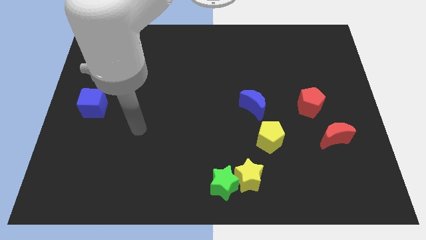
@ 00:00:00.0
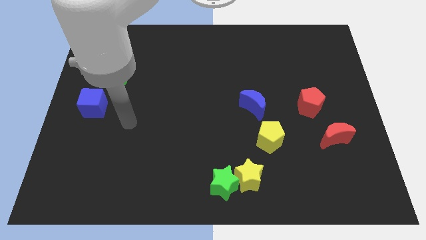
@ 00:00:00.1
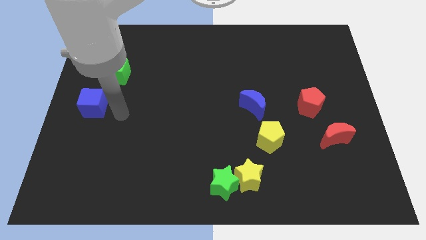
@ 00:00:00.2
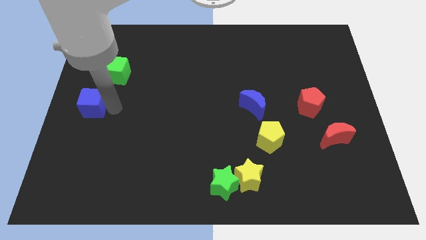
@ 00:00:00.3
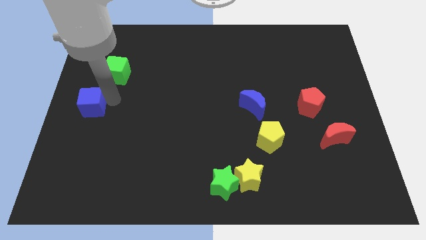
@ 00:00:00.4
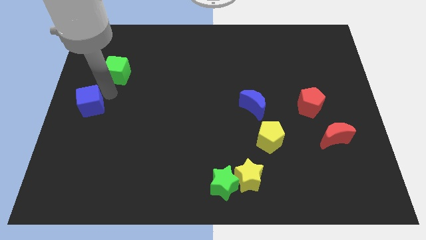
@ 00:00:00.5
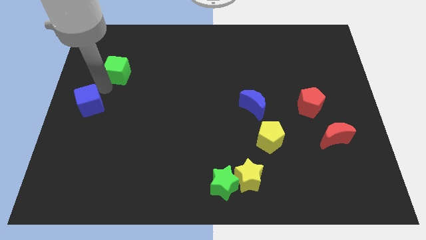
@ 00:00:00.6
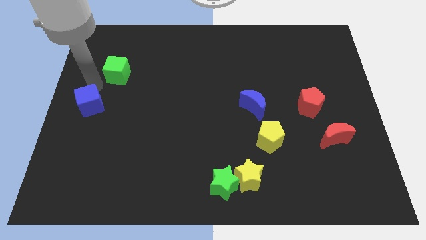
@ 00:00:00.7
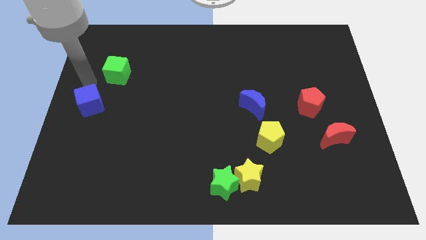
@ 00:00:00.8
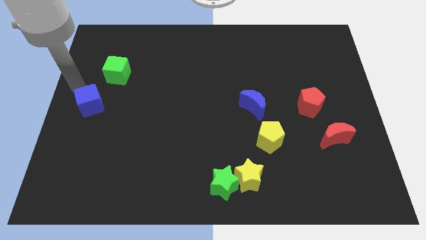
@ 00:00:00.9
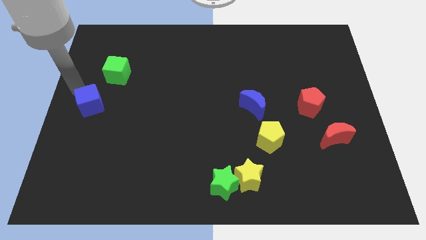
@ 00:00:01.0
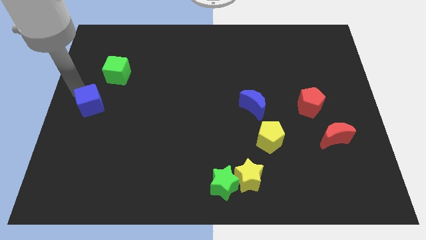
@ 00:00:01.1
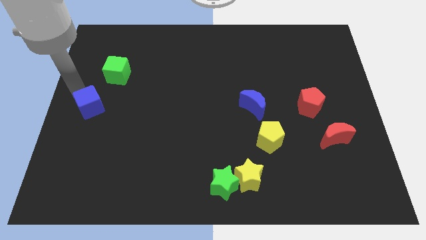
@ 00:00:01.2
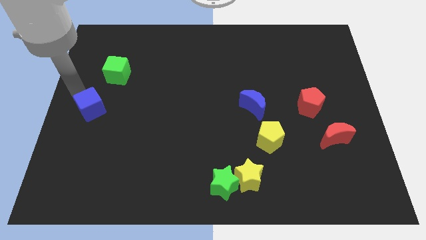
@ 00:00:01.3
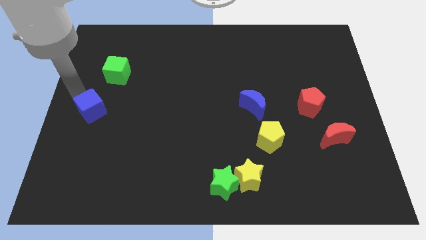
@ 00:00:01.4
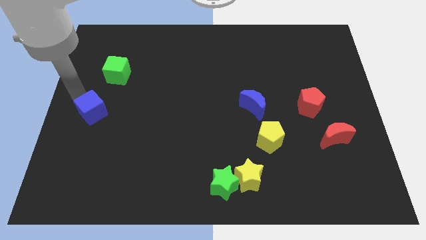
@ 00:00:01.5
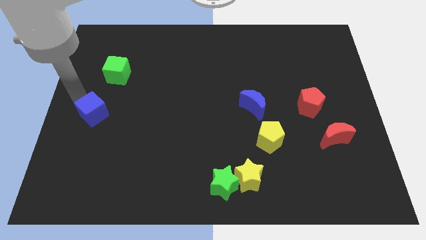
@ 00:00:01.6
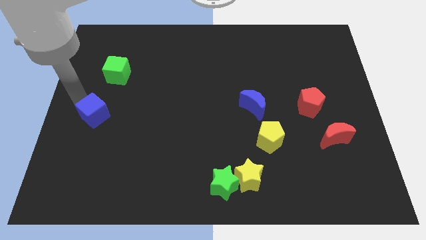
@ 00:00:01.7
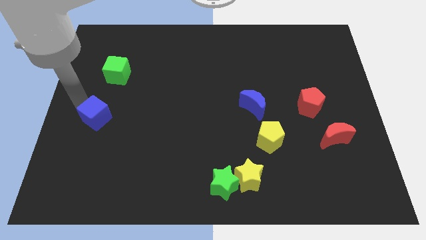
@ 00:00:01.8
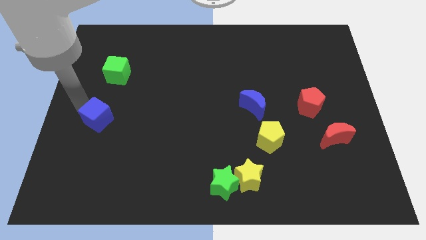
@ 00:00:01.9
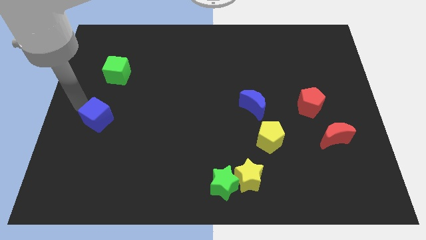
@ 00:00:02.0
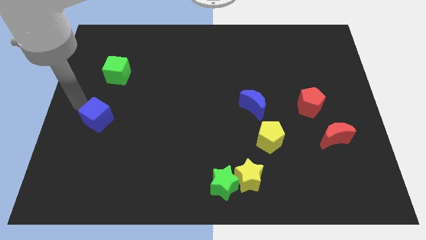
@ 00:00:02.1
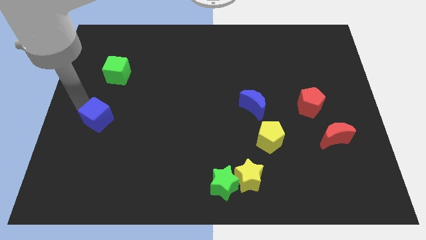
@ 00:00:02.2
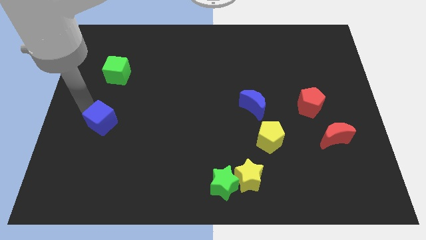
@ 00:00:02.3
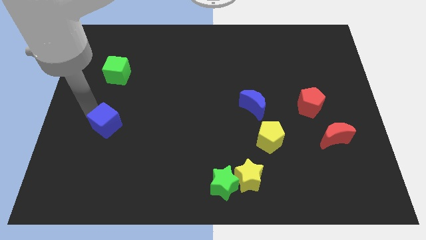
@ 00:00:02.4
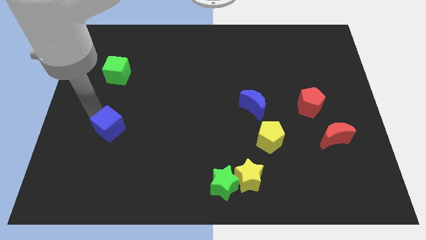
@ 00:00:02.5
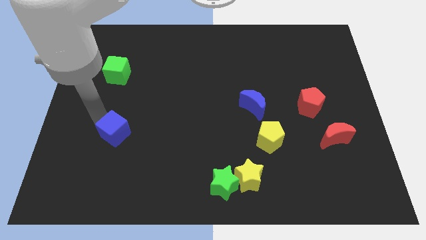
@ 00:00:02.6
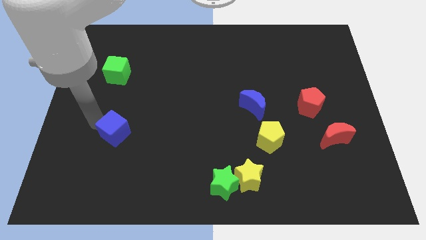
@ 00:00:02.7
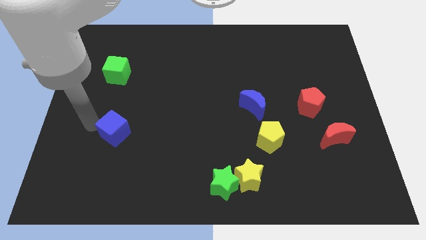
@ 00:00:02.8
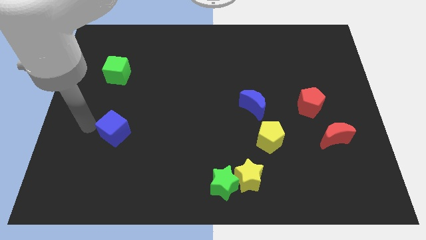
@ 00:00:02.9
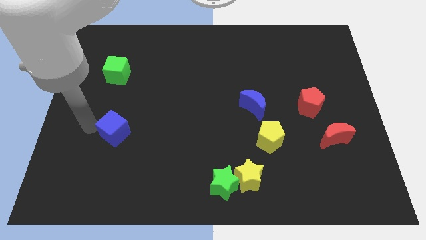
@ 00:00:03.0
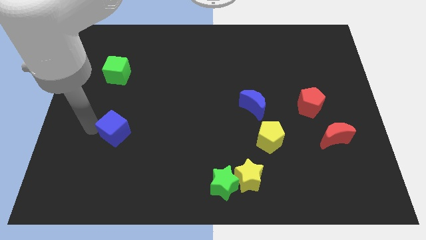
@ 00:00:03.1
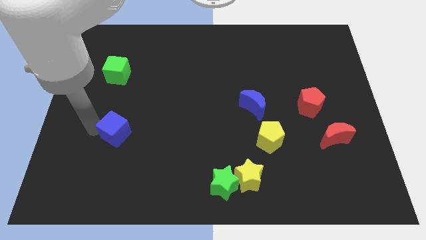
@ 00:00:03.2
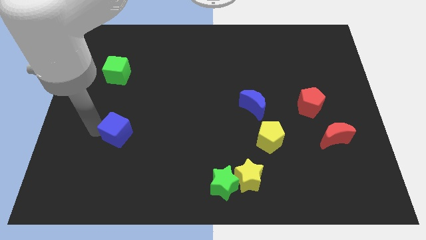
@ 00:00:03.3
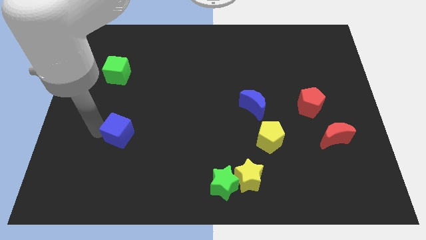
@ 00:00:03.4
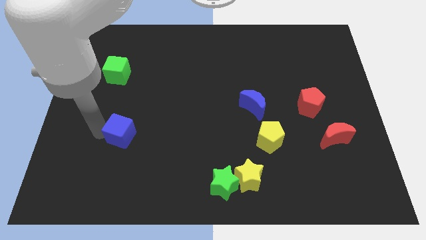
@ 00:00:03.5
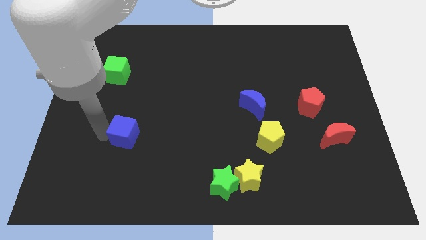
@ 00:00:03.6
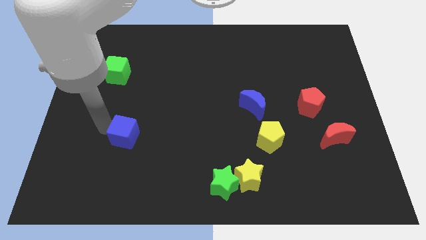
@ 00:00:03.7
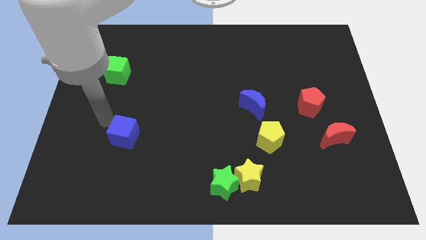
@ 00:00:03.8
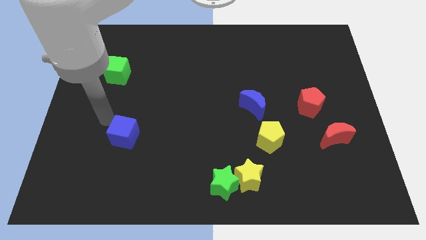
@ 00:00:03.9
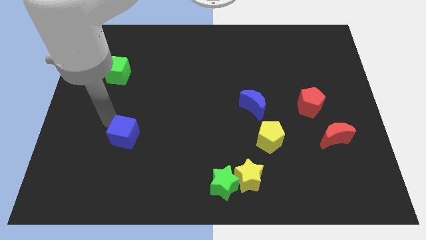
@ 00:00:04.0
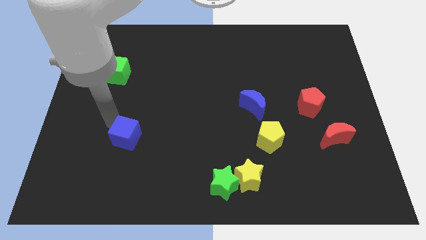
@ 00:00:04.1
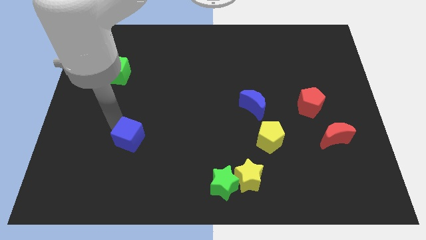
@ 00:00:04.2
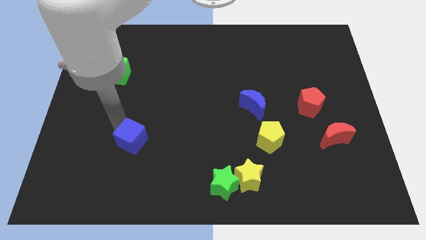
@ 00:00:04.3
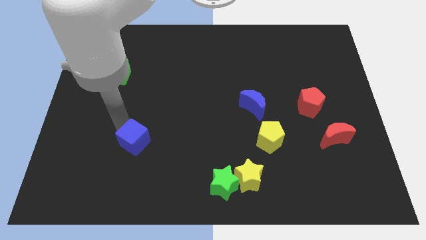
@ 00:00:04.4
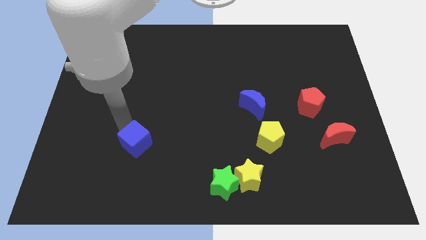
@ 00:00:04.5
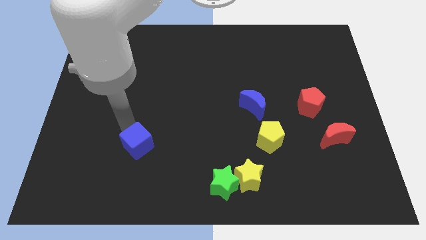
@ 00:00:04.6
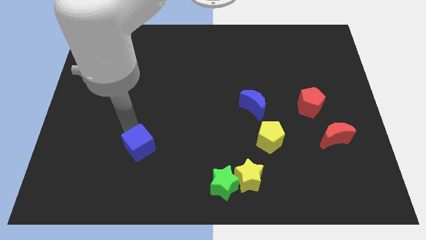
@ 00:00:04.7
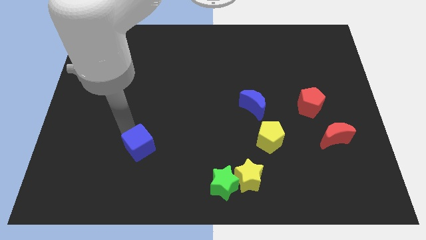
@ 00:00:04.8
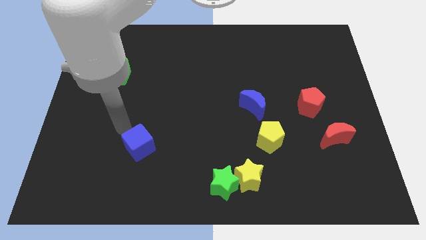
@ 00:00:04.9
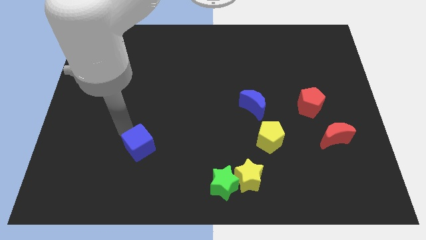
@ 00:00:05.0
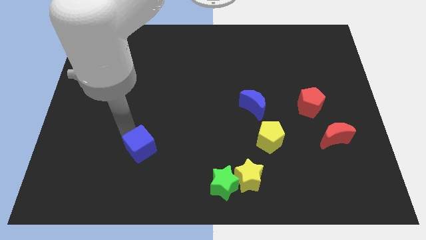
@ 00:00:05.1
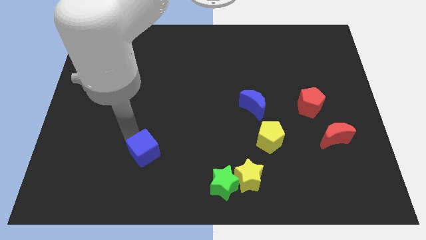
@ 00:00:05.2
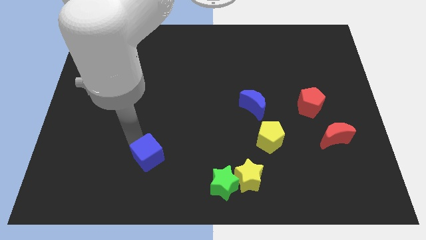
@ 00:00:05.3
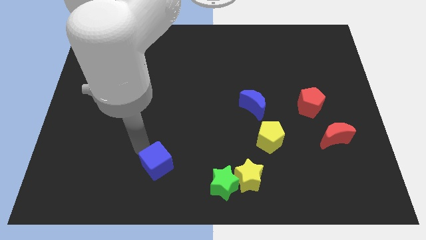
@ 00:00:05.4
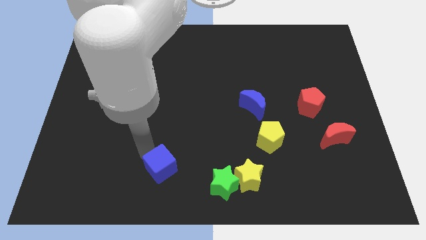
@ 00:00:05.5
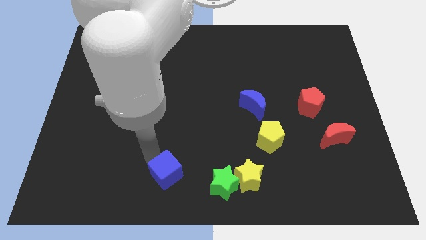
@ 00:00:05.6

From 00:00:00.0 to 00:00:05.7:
push the blue cube to the bottom side
